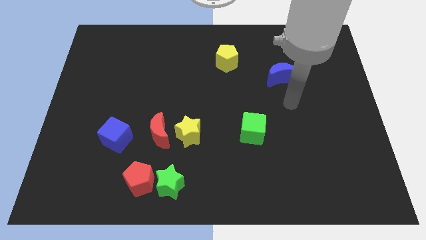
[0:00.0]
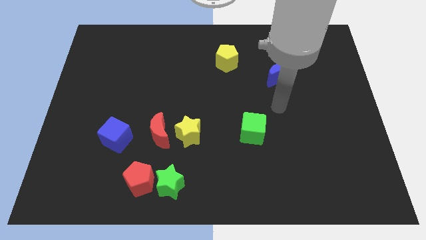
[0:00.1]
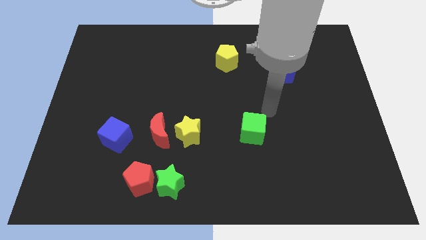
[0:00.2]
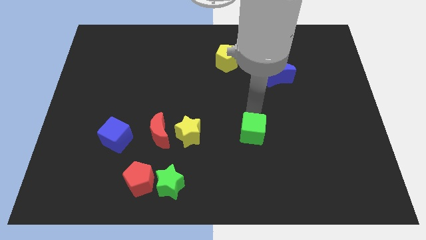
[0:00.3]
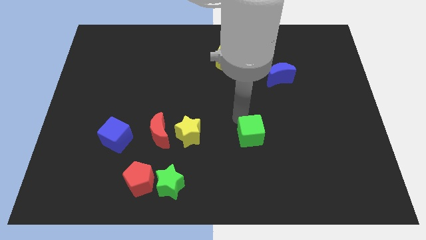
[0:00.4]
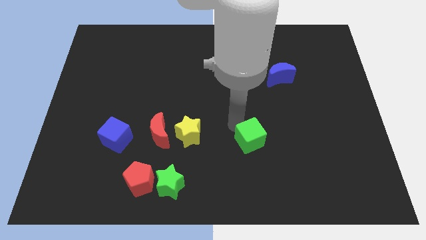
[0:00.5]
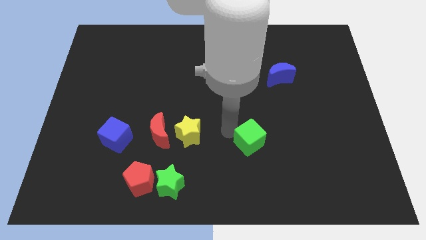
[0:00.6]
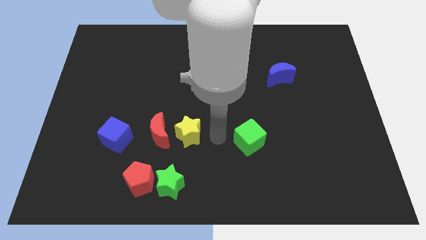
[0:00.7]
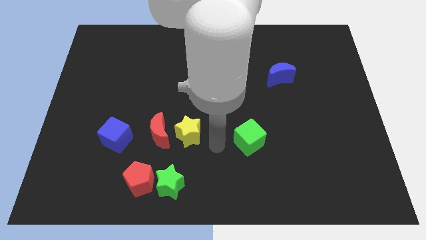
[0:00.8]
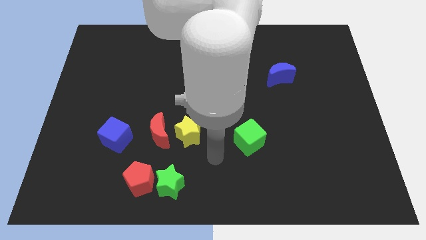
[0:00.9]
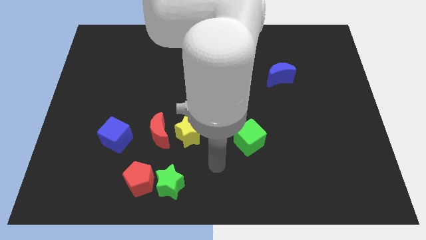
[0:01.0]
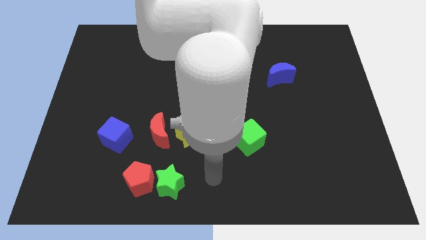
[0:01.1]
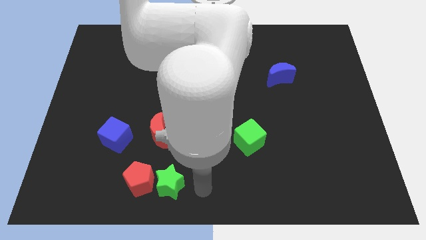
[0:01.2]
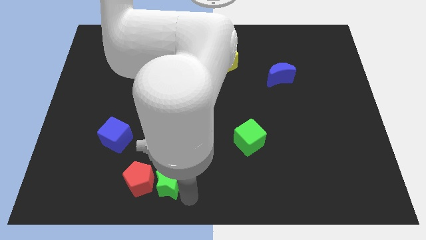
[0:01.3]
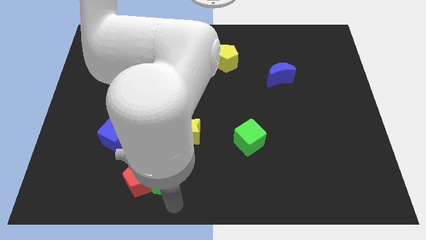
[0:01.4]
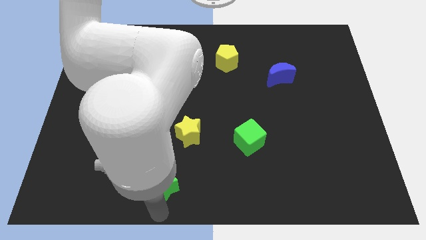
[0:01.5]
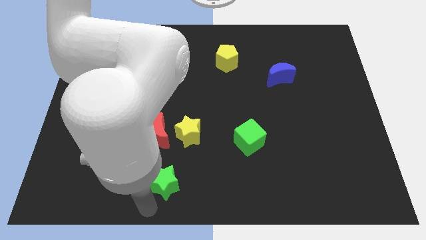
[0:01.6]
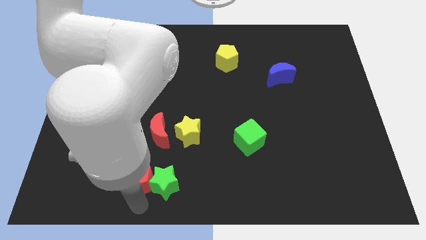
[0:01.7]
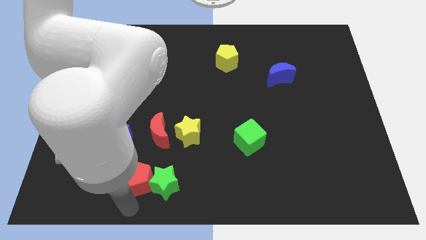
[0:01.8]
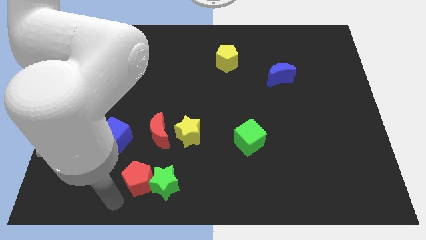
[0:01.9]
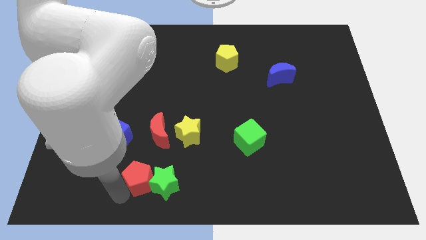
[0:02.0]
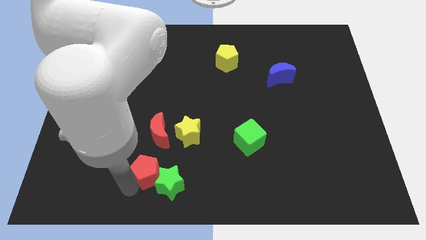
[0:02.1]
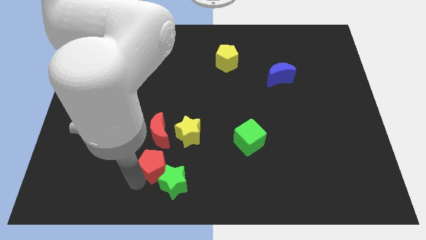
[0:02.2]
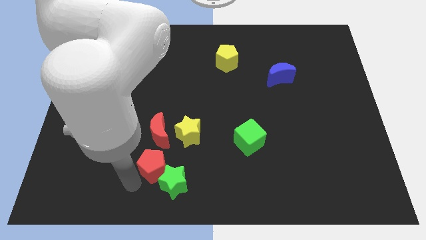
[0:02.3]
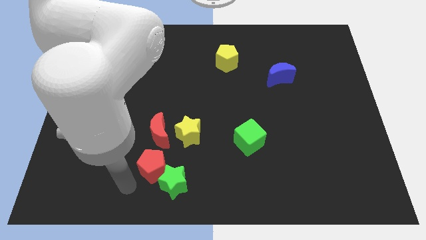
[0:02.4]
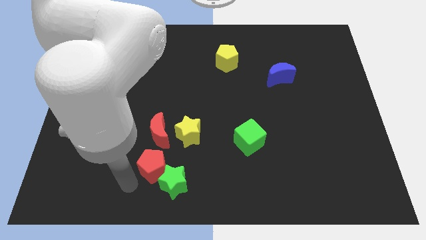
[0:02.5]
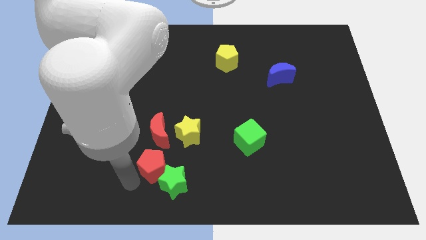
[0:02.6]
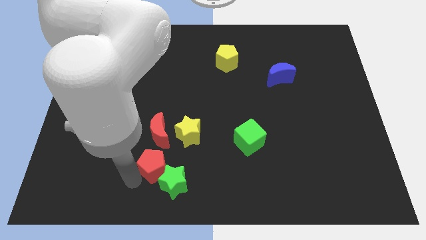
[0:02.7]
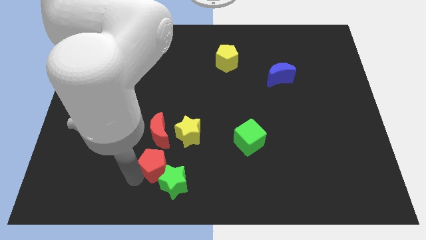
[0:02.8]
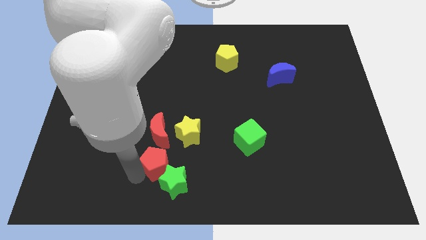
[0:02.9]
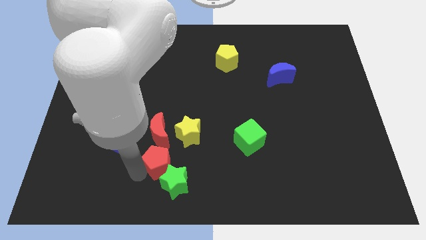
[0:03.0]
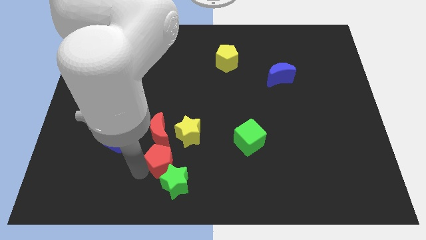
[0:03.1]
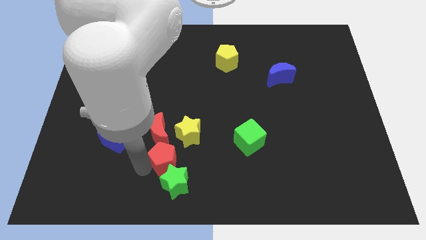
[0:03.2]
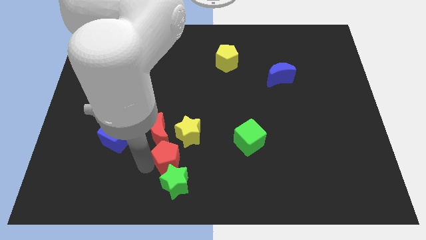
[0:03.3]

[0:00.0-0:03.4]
move the red pentagon a little bit diagonally upwards and to the right

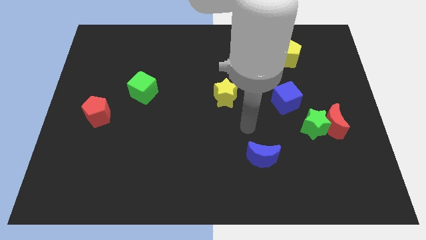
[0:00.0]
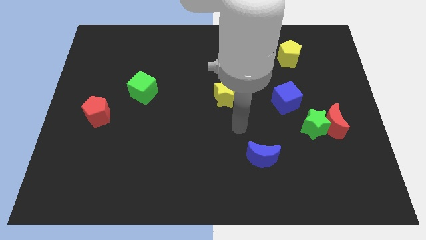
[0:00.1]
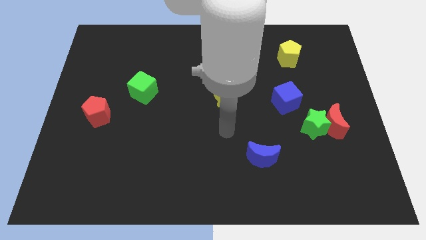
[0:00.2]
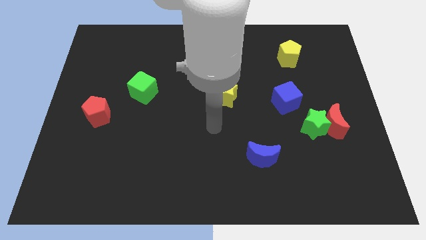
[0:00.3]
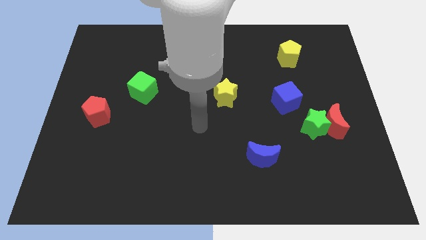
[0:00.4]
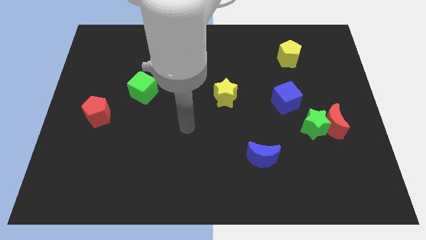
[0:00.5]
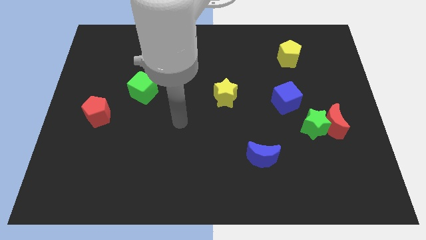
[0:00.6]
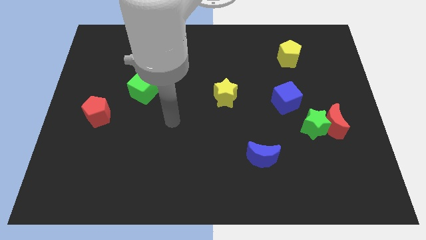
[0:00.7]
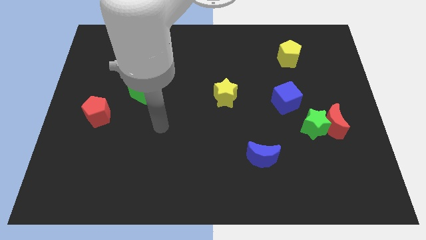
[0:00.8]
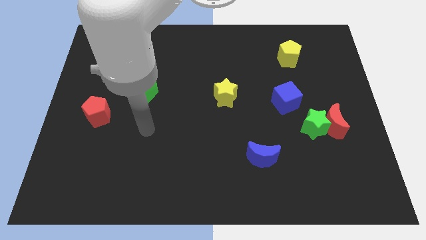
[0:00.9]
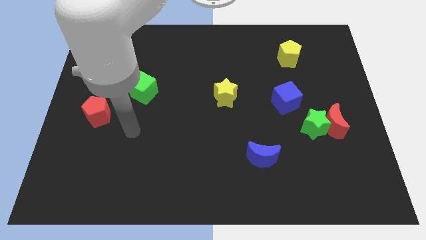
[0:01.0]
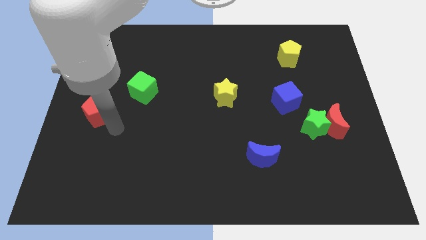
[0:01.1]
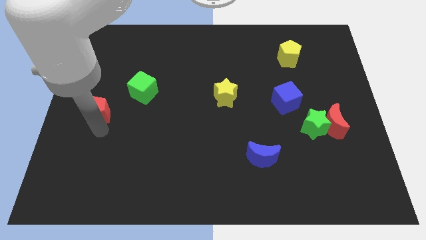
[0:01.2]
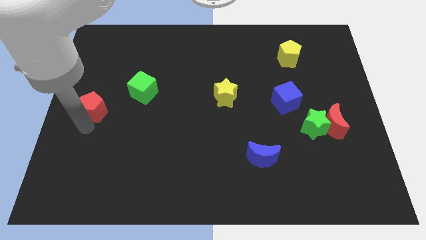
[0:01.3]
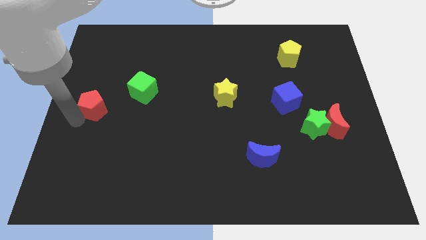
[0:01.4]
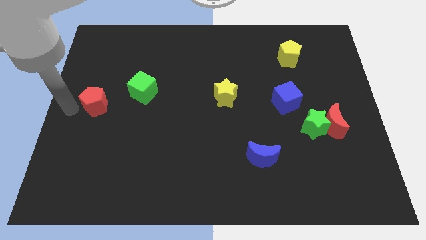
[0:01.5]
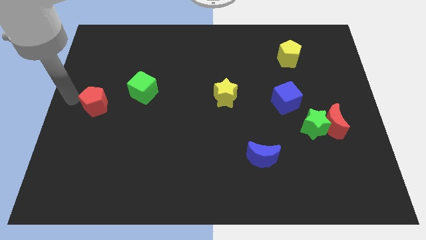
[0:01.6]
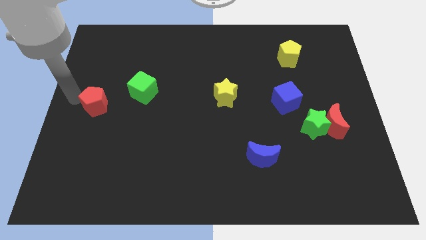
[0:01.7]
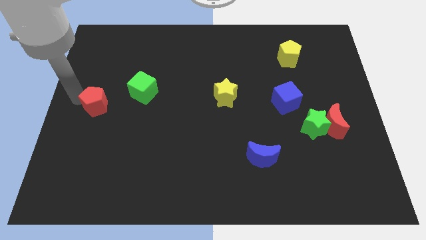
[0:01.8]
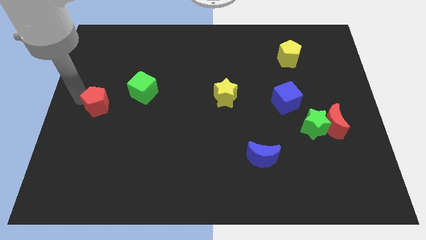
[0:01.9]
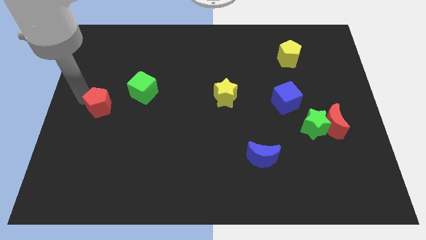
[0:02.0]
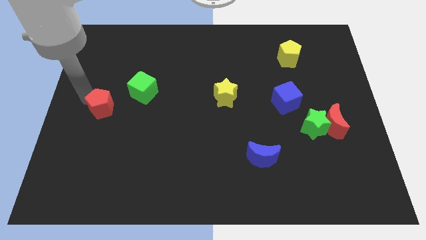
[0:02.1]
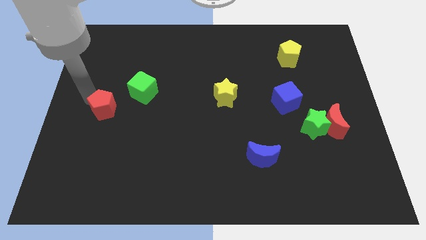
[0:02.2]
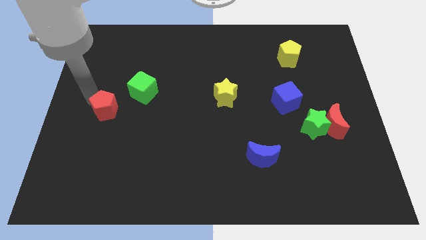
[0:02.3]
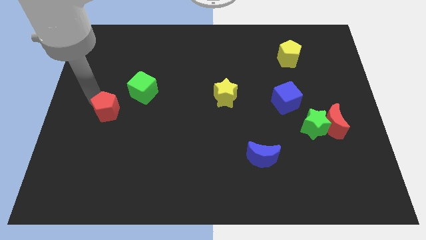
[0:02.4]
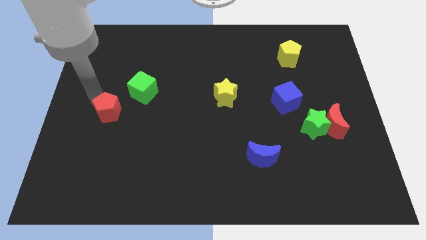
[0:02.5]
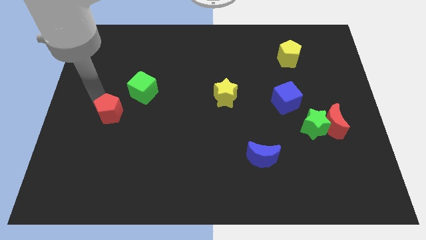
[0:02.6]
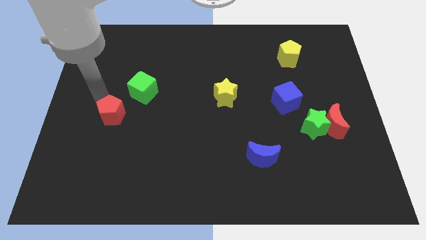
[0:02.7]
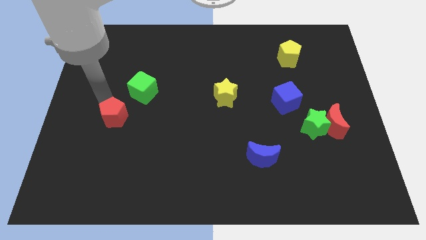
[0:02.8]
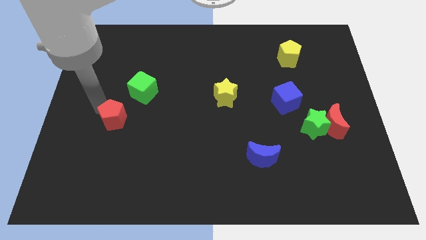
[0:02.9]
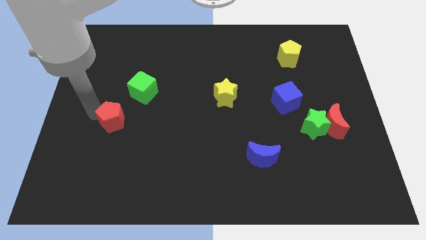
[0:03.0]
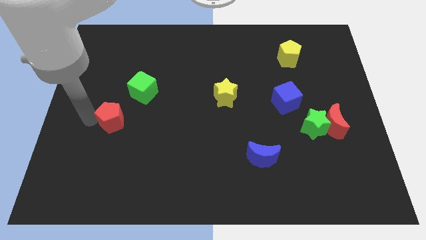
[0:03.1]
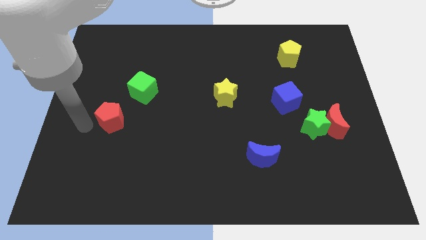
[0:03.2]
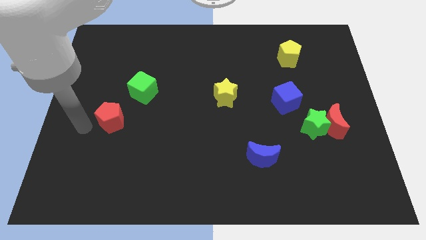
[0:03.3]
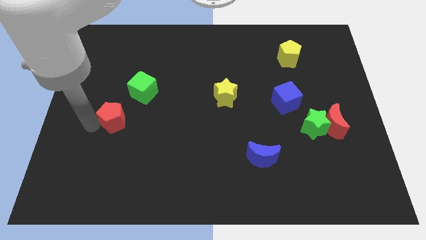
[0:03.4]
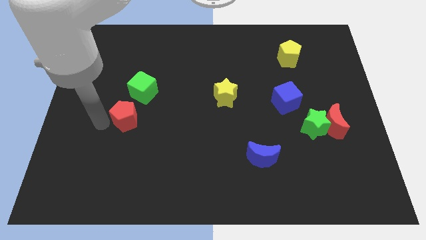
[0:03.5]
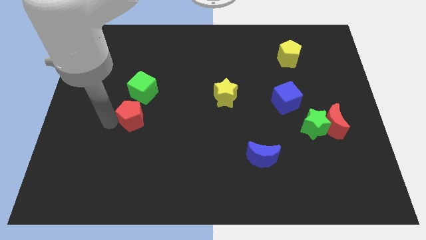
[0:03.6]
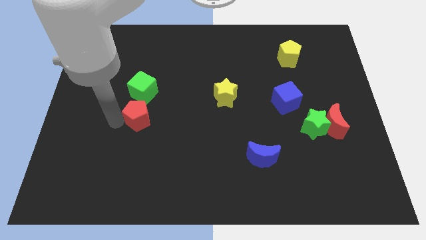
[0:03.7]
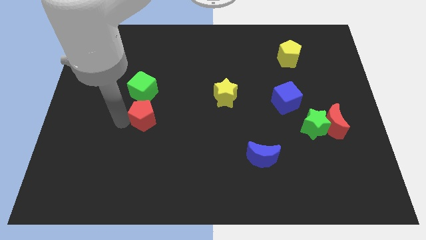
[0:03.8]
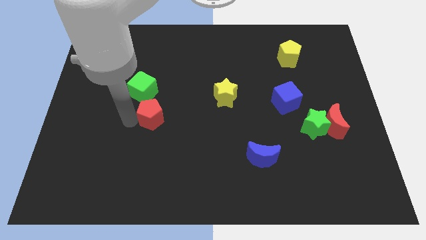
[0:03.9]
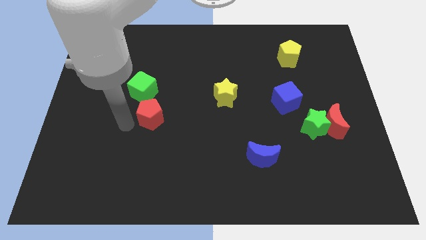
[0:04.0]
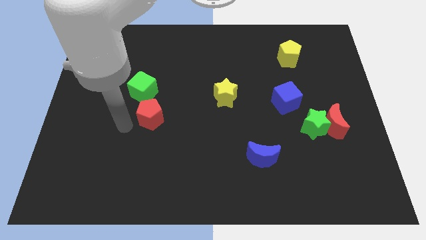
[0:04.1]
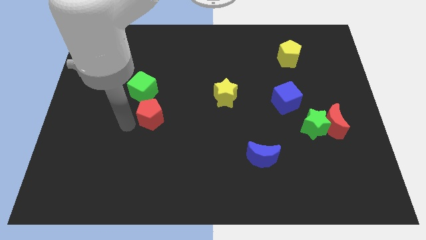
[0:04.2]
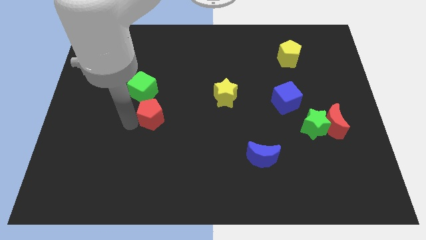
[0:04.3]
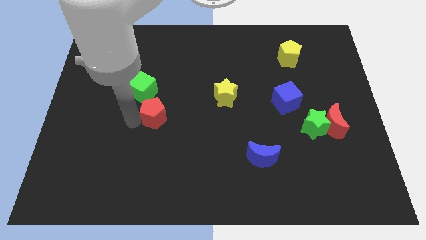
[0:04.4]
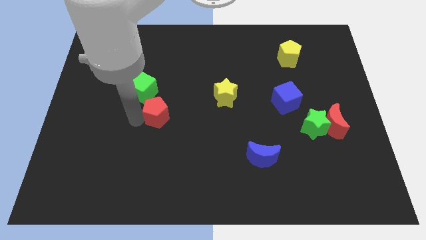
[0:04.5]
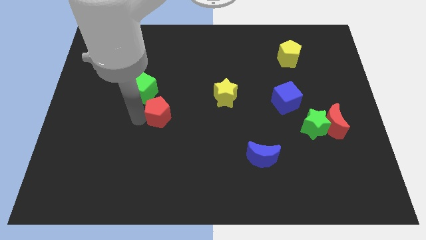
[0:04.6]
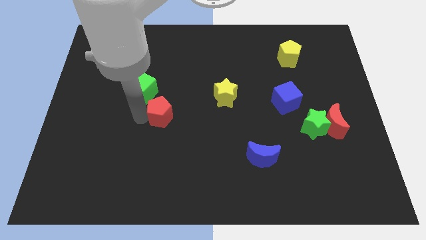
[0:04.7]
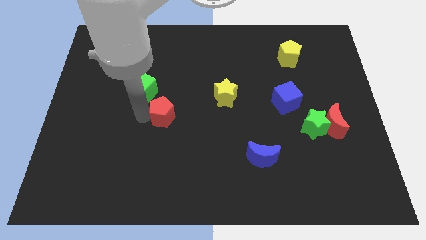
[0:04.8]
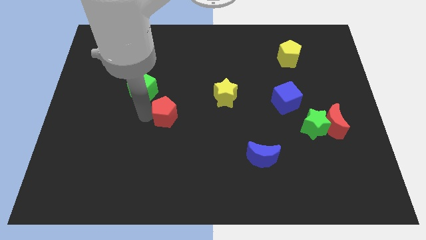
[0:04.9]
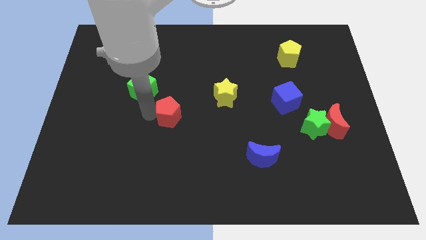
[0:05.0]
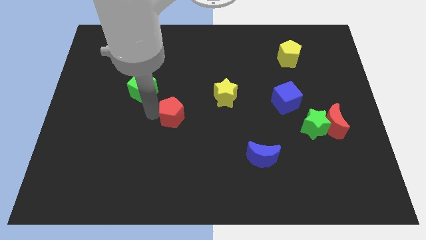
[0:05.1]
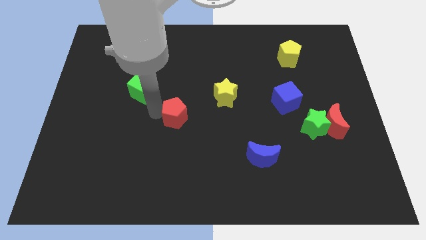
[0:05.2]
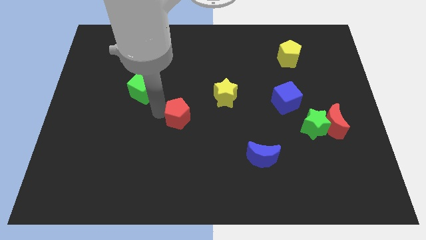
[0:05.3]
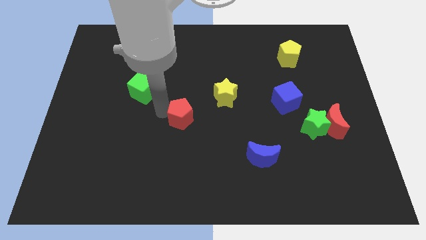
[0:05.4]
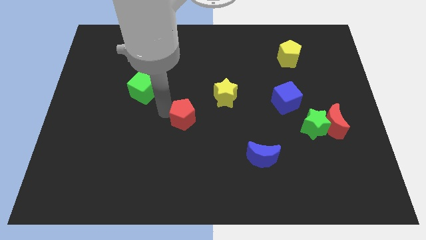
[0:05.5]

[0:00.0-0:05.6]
slide the red pentagon to the right
